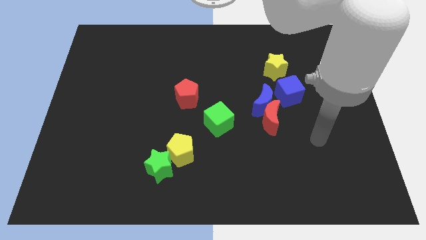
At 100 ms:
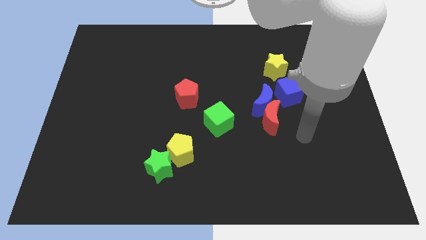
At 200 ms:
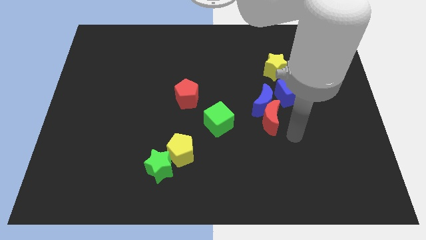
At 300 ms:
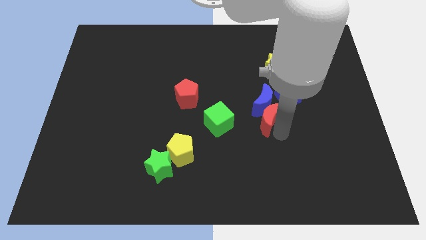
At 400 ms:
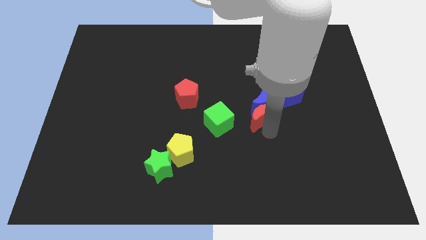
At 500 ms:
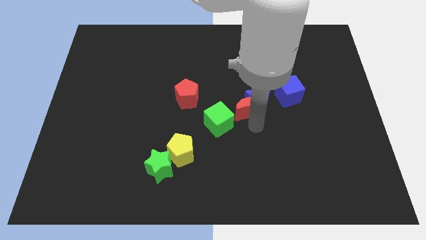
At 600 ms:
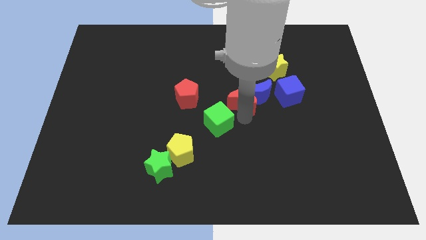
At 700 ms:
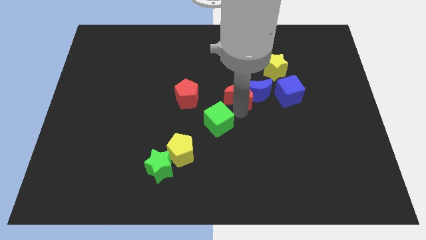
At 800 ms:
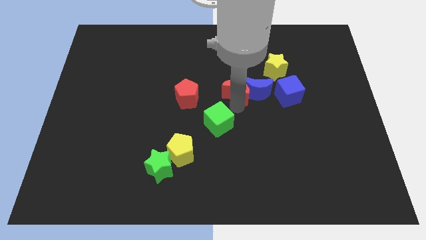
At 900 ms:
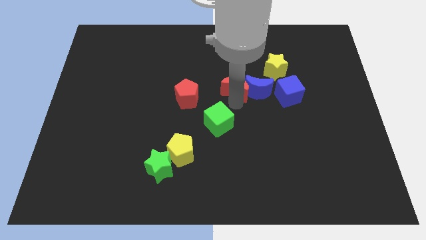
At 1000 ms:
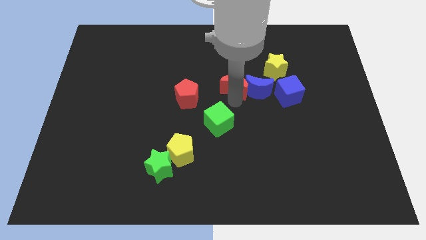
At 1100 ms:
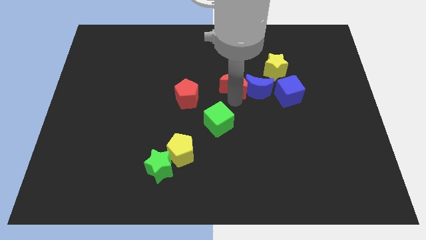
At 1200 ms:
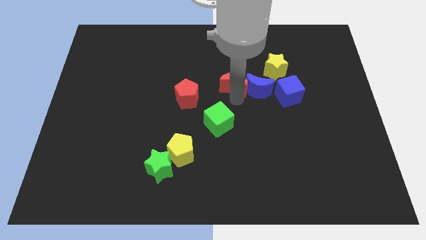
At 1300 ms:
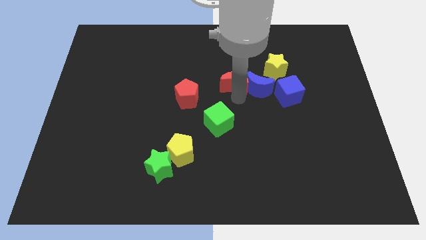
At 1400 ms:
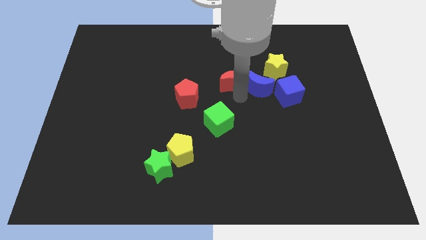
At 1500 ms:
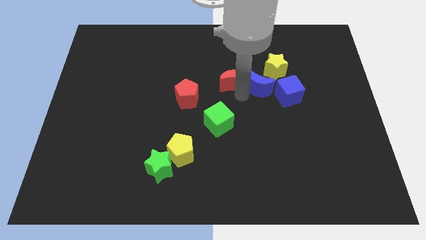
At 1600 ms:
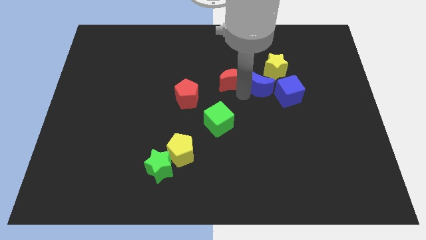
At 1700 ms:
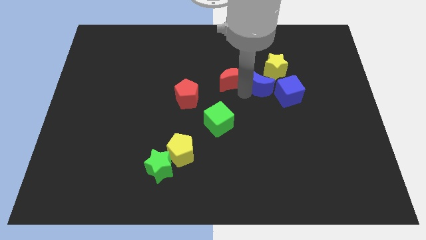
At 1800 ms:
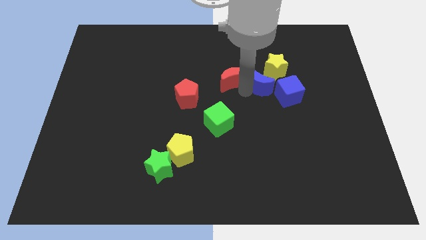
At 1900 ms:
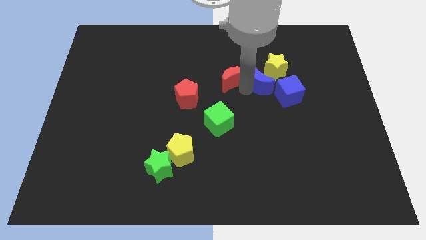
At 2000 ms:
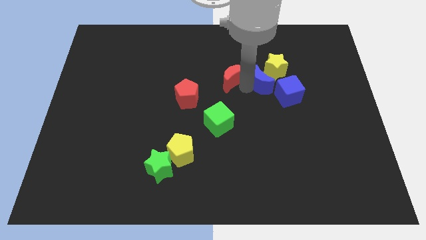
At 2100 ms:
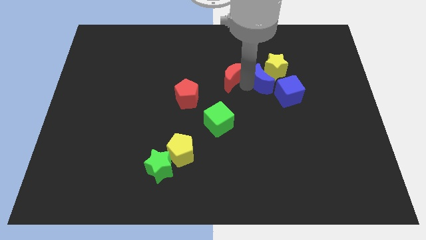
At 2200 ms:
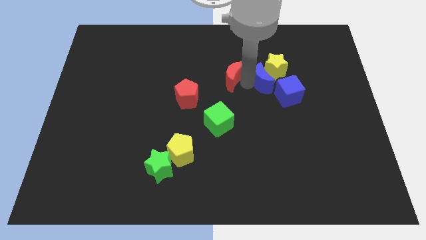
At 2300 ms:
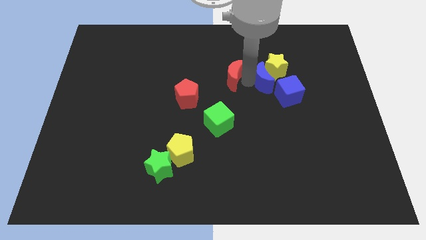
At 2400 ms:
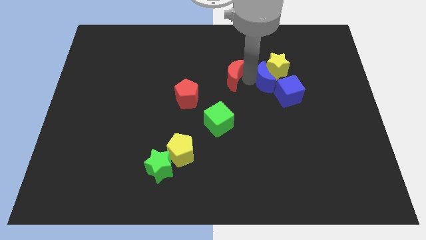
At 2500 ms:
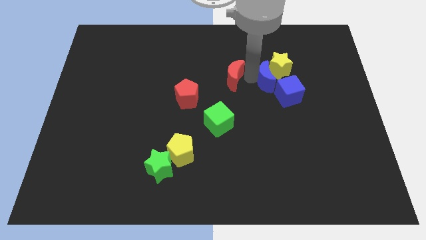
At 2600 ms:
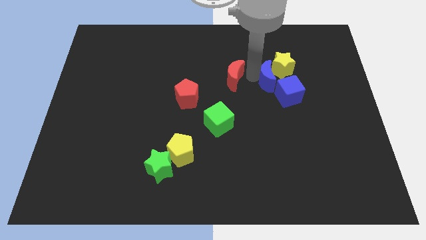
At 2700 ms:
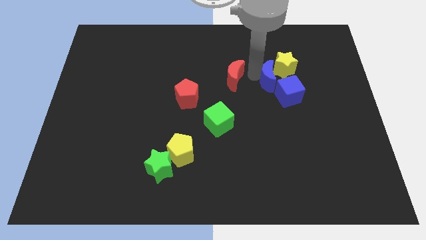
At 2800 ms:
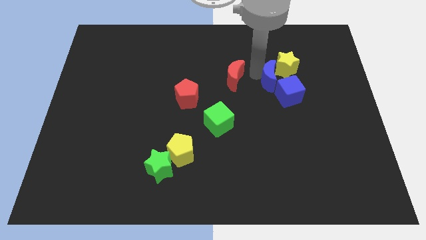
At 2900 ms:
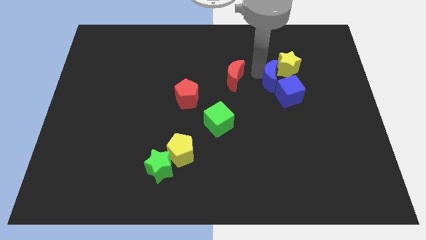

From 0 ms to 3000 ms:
slide the blue moon slightly upwards and right

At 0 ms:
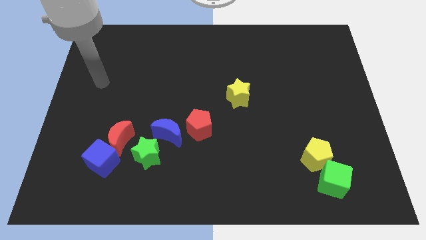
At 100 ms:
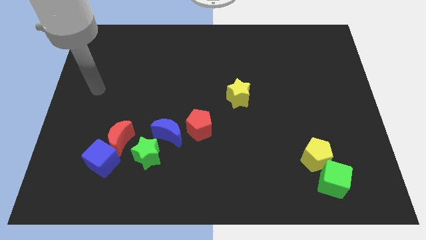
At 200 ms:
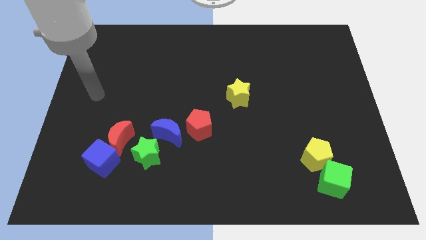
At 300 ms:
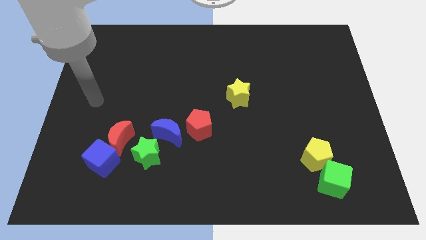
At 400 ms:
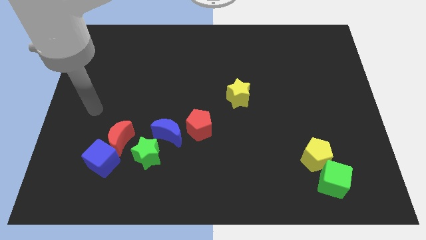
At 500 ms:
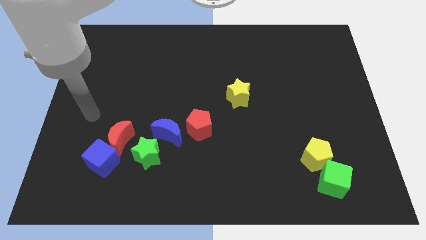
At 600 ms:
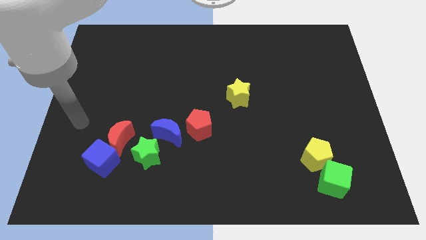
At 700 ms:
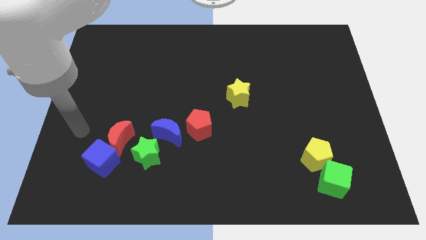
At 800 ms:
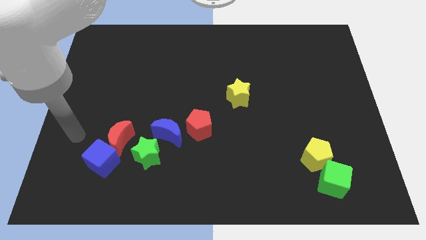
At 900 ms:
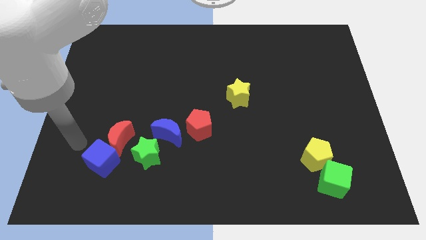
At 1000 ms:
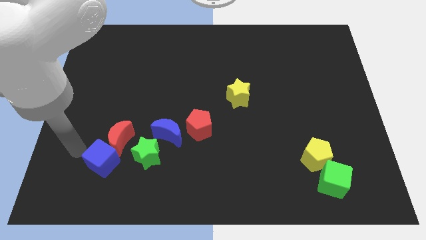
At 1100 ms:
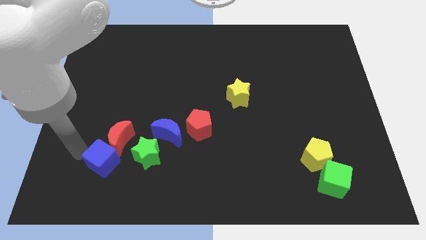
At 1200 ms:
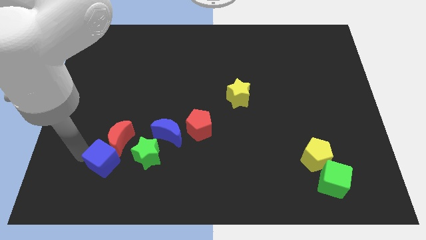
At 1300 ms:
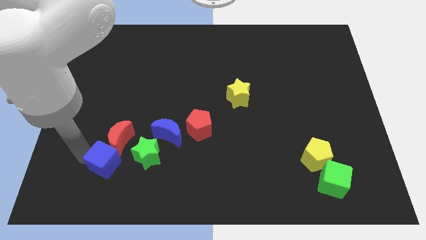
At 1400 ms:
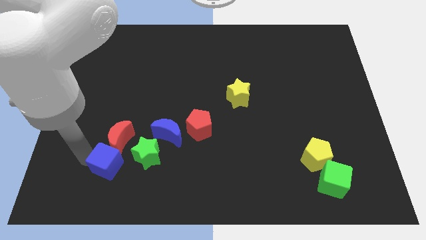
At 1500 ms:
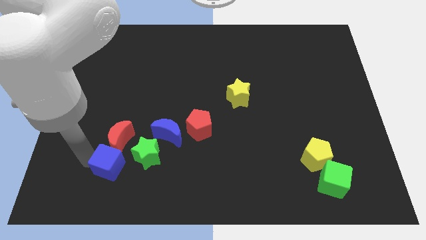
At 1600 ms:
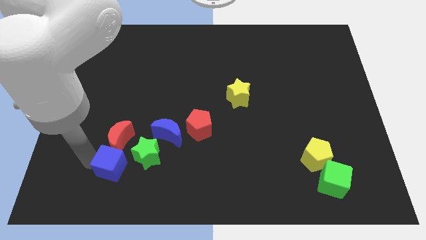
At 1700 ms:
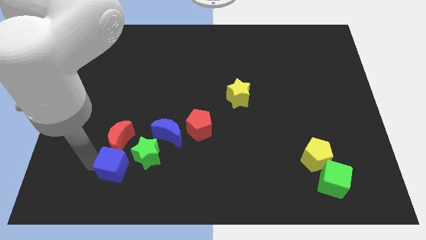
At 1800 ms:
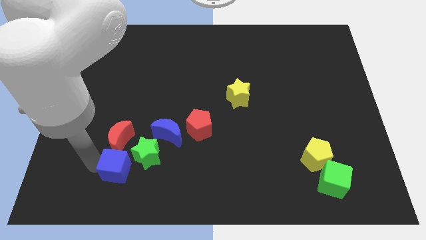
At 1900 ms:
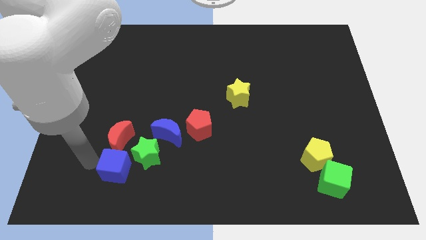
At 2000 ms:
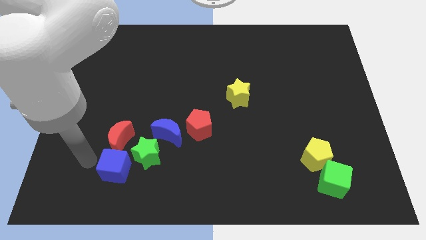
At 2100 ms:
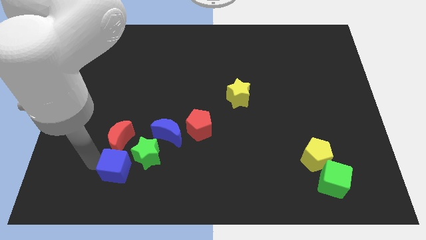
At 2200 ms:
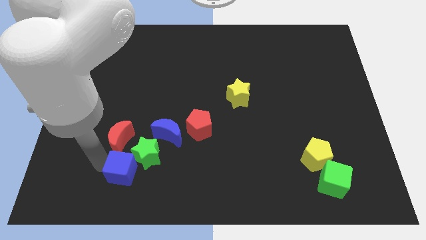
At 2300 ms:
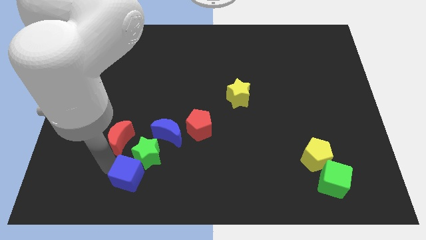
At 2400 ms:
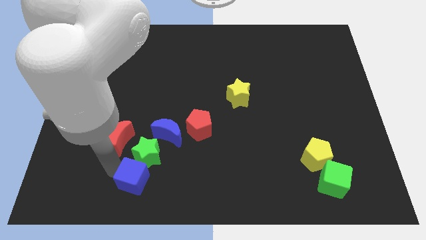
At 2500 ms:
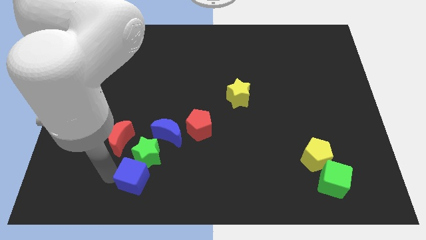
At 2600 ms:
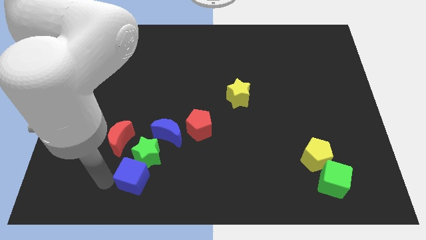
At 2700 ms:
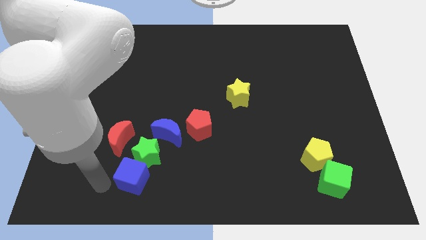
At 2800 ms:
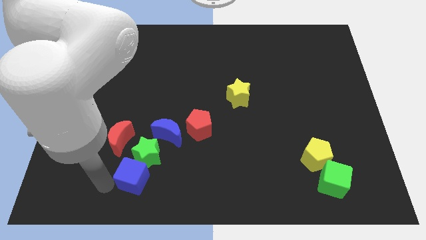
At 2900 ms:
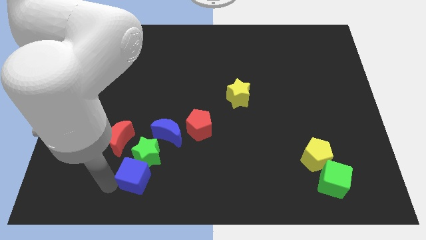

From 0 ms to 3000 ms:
move the blue cube to the right slightly

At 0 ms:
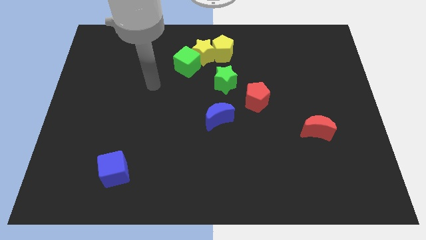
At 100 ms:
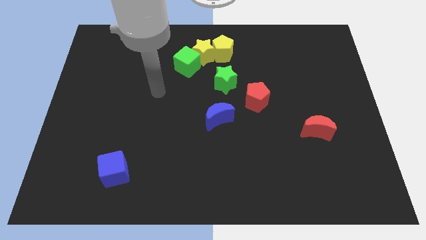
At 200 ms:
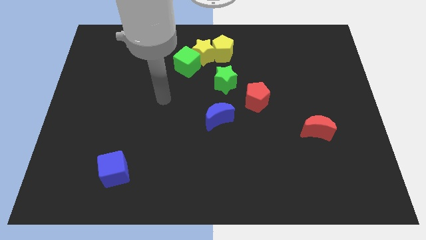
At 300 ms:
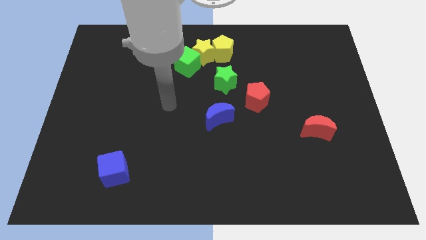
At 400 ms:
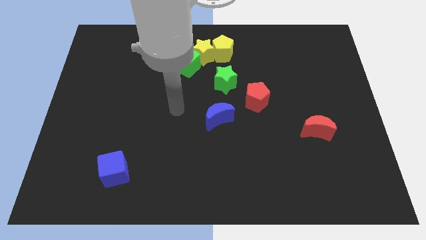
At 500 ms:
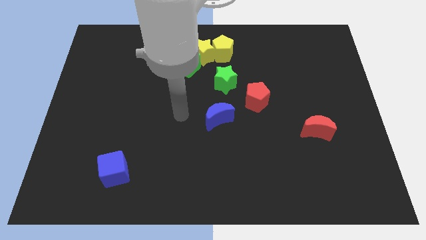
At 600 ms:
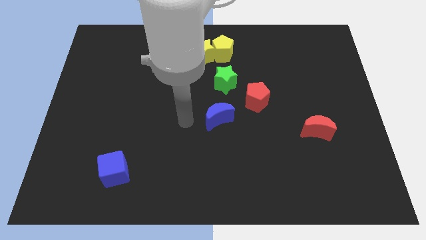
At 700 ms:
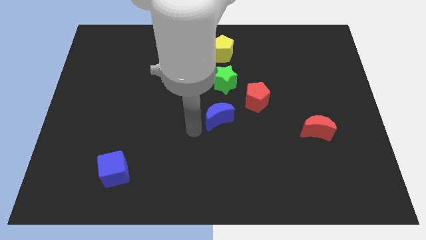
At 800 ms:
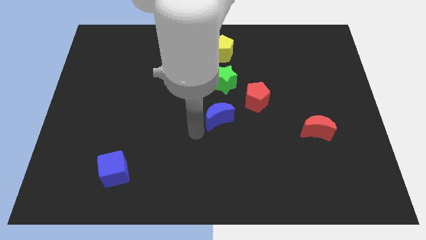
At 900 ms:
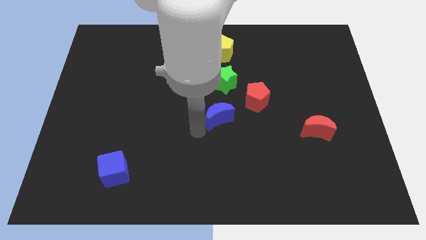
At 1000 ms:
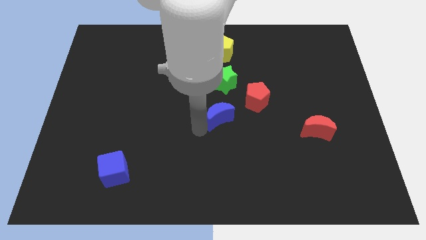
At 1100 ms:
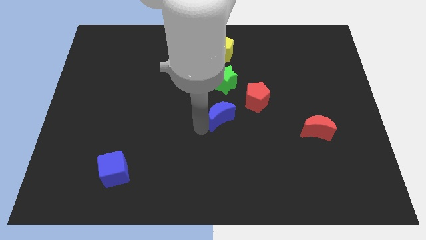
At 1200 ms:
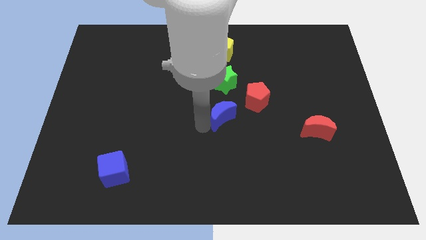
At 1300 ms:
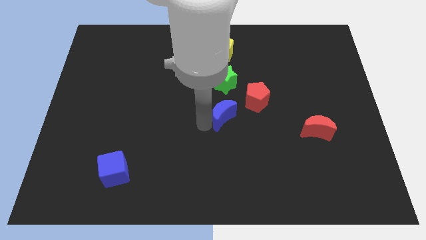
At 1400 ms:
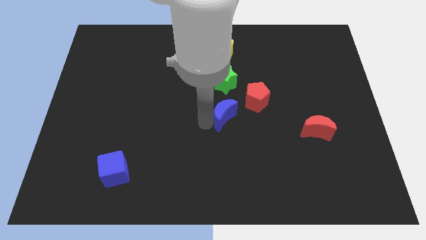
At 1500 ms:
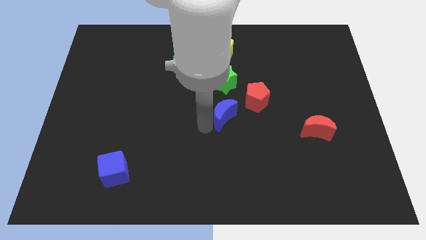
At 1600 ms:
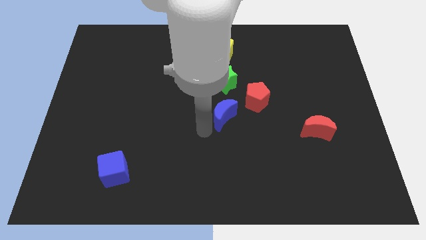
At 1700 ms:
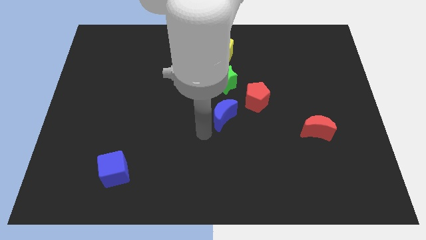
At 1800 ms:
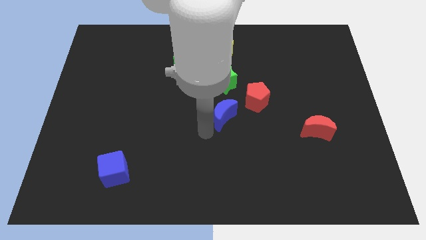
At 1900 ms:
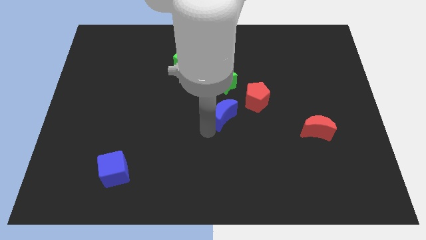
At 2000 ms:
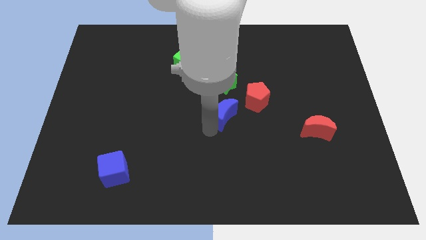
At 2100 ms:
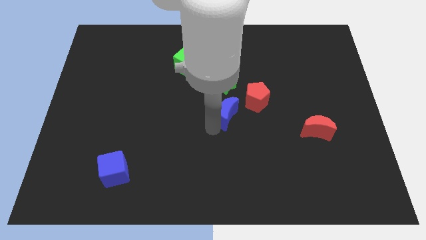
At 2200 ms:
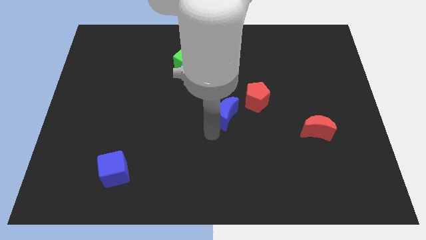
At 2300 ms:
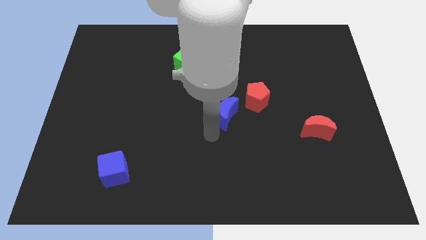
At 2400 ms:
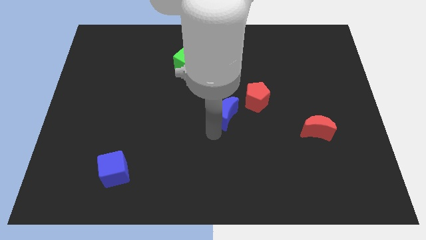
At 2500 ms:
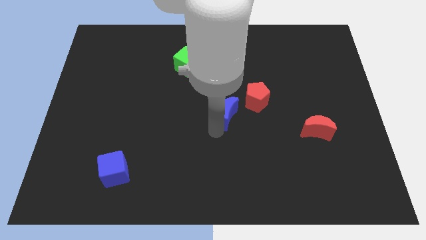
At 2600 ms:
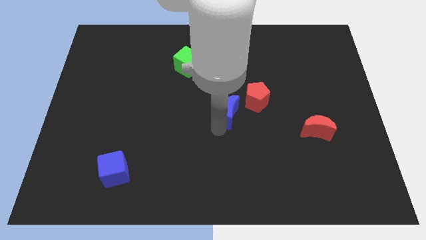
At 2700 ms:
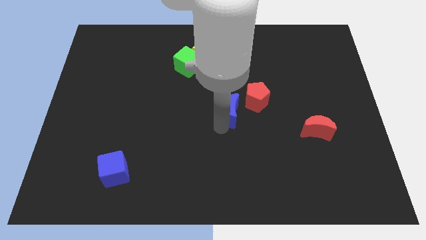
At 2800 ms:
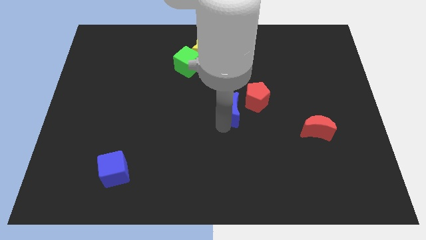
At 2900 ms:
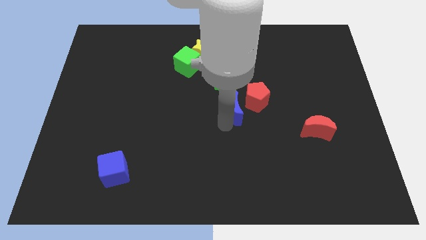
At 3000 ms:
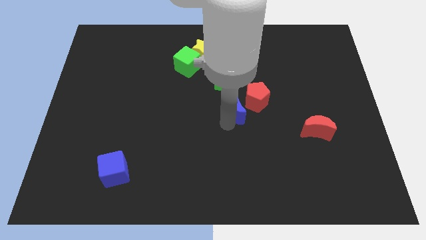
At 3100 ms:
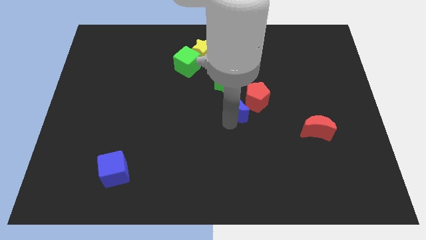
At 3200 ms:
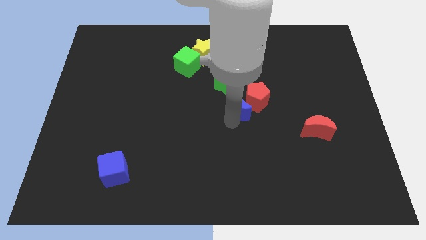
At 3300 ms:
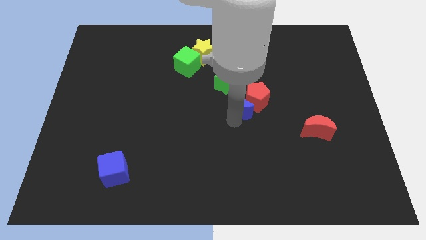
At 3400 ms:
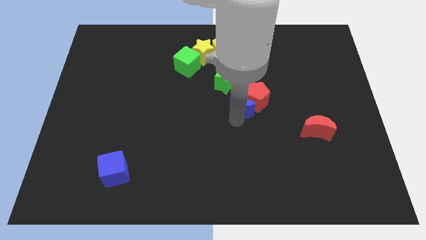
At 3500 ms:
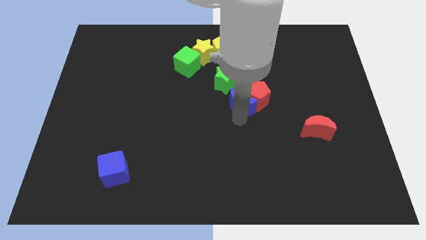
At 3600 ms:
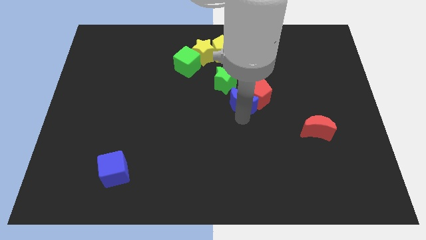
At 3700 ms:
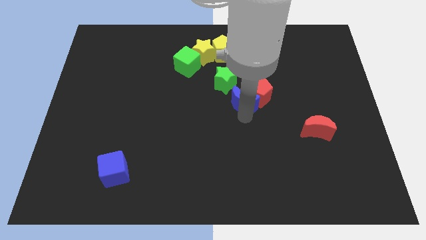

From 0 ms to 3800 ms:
slightly move the blue moon diagonally up and right
